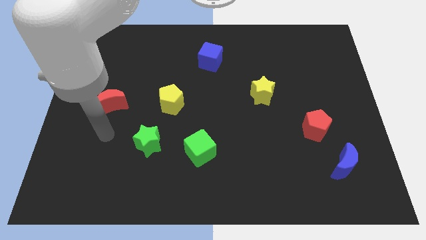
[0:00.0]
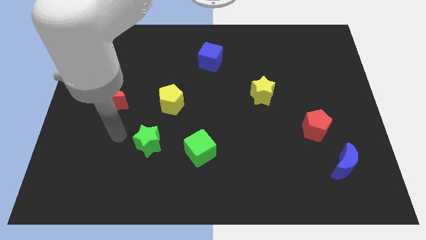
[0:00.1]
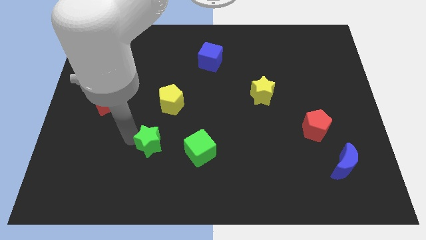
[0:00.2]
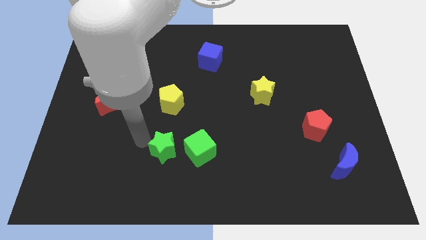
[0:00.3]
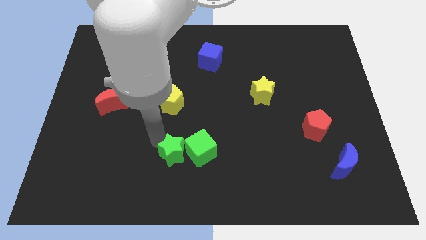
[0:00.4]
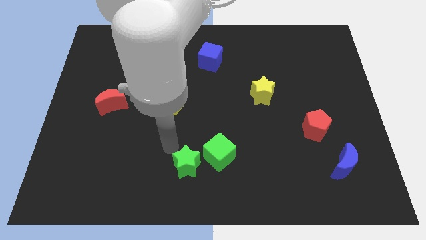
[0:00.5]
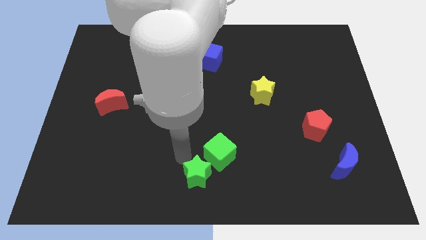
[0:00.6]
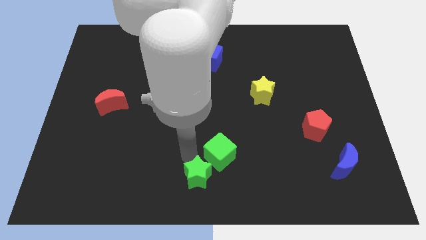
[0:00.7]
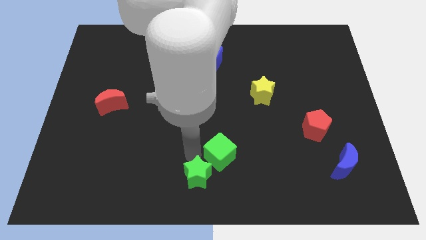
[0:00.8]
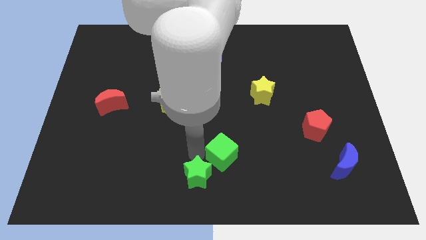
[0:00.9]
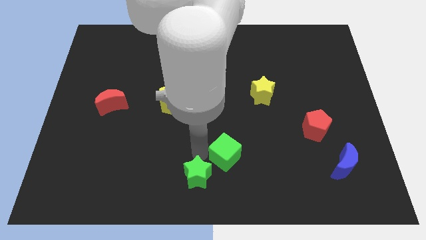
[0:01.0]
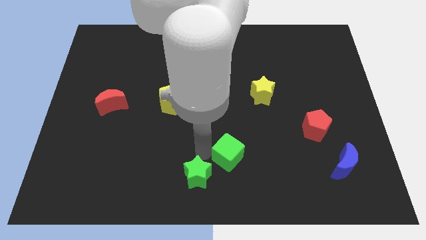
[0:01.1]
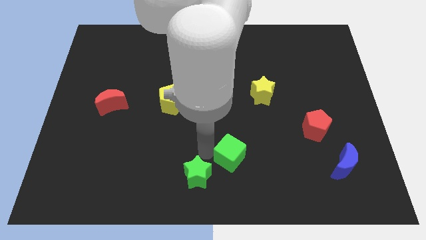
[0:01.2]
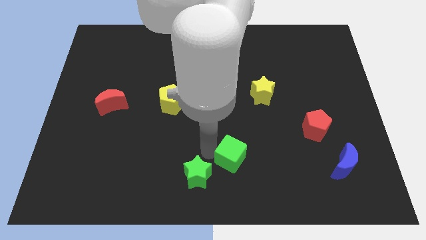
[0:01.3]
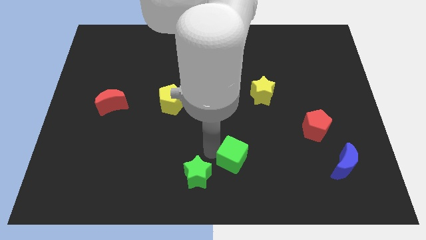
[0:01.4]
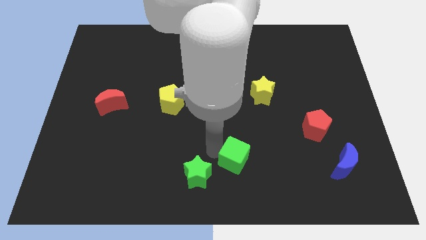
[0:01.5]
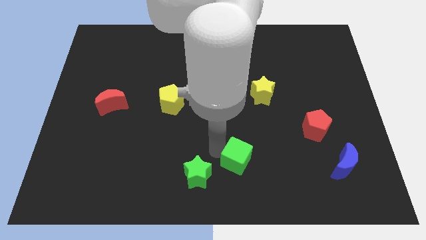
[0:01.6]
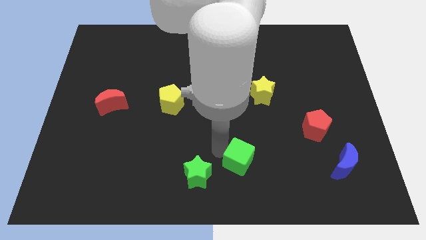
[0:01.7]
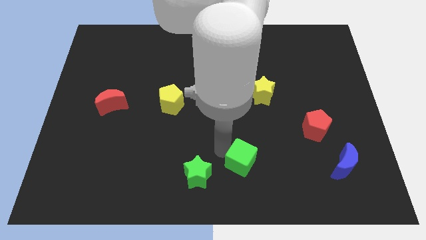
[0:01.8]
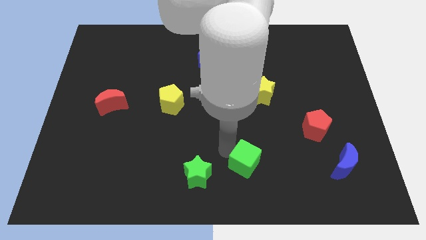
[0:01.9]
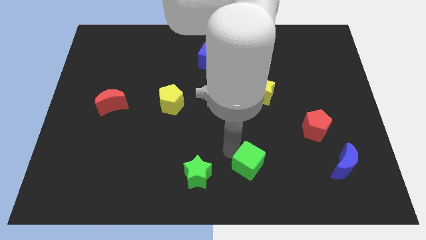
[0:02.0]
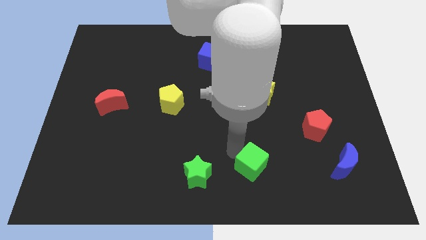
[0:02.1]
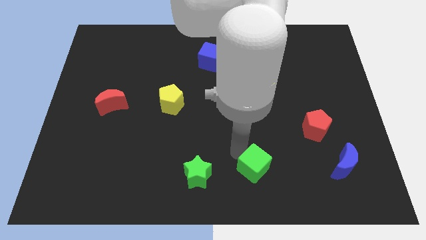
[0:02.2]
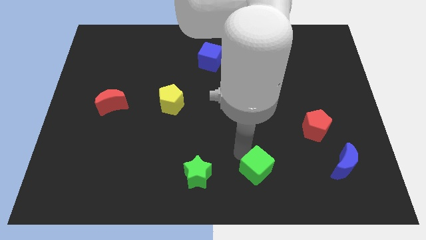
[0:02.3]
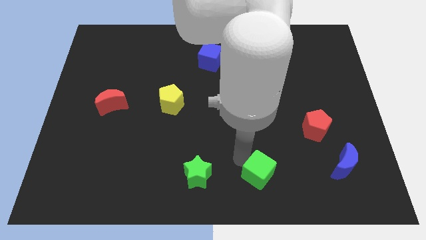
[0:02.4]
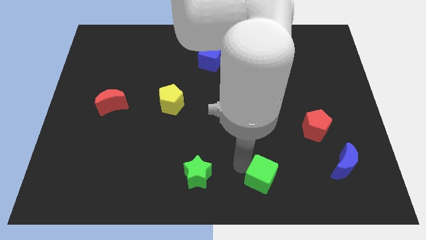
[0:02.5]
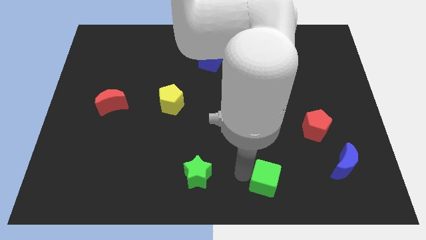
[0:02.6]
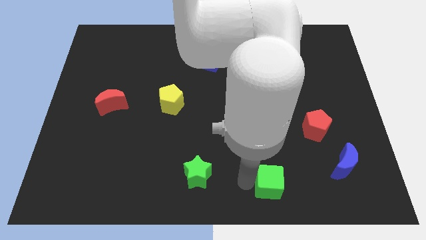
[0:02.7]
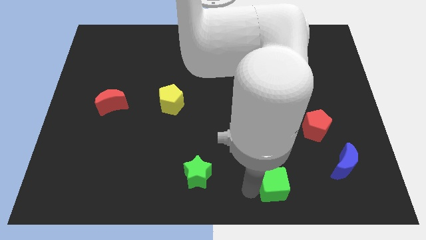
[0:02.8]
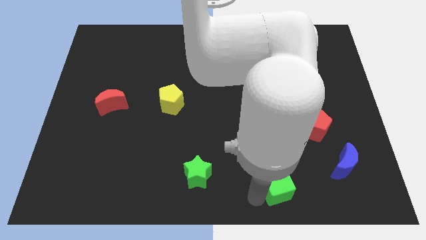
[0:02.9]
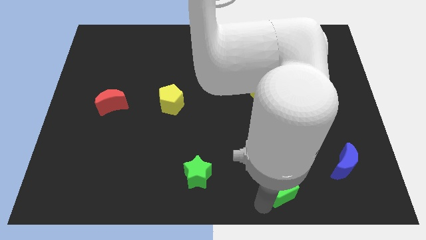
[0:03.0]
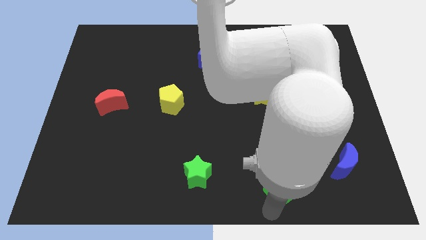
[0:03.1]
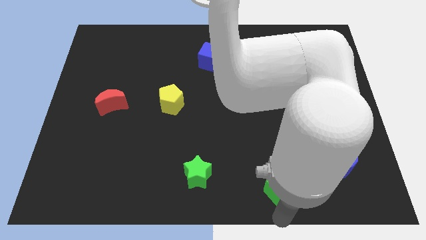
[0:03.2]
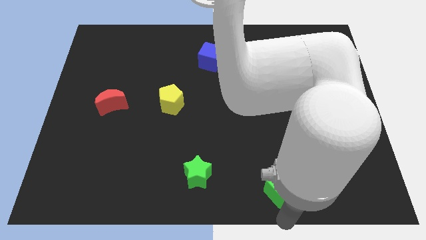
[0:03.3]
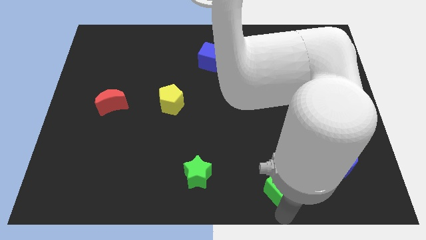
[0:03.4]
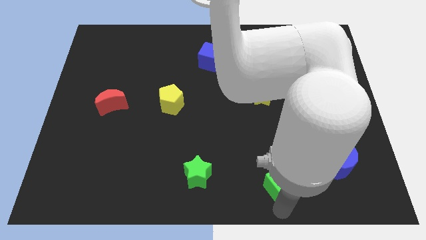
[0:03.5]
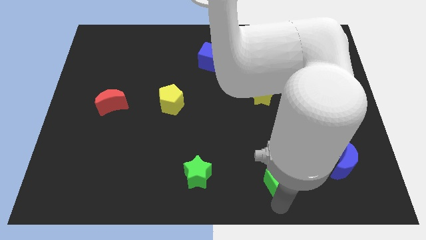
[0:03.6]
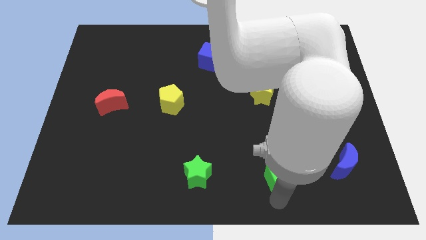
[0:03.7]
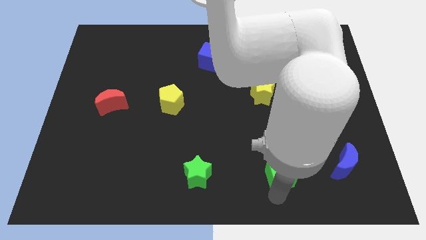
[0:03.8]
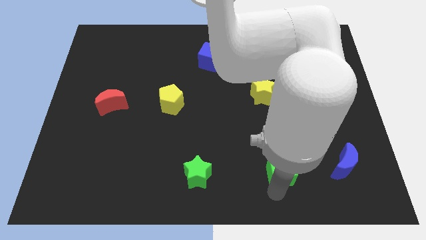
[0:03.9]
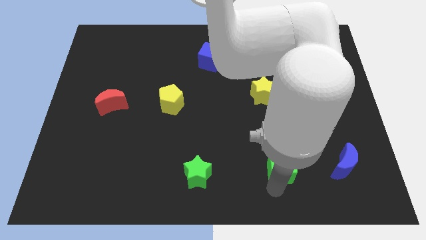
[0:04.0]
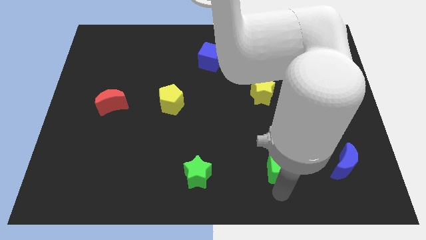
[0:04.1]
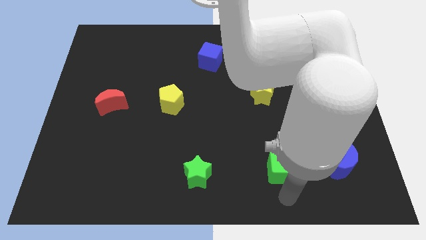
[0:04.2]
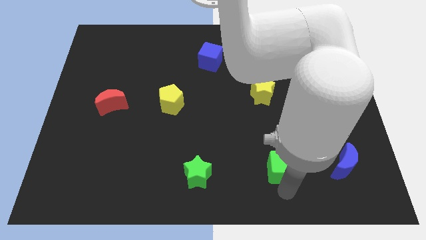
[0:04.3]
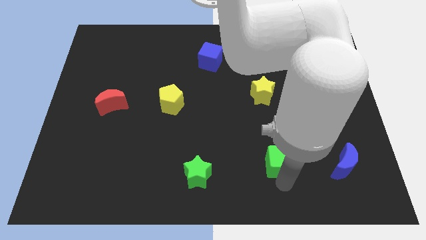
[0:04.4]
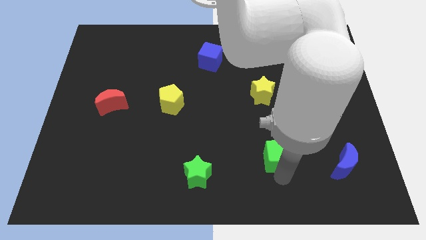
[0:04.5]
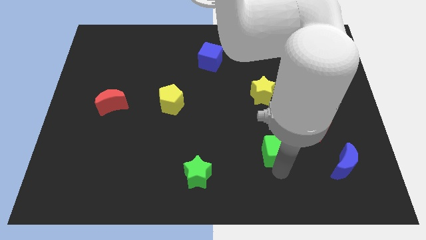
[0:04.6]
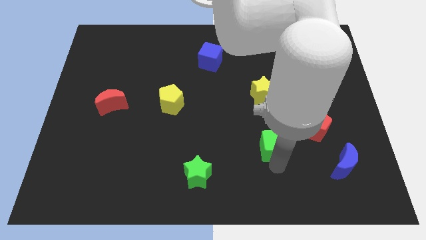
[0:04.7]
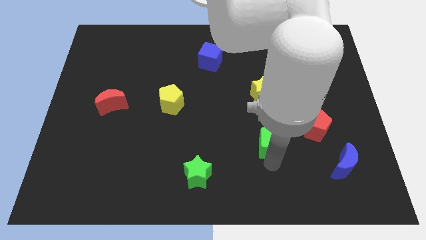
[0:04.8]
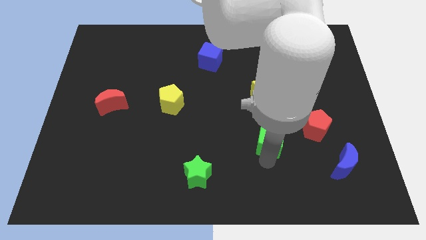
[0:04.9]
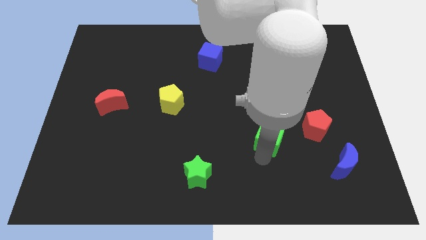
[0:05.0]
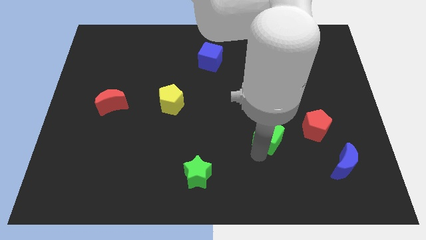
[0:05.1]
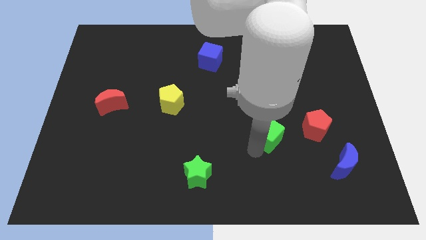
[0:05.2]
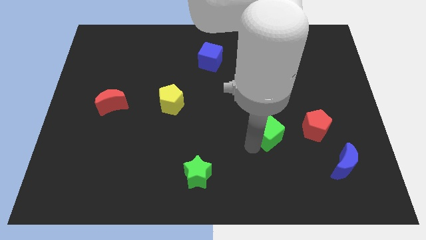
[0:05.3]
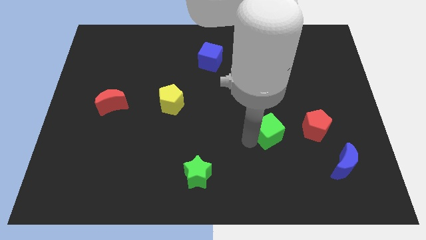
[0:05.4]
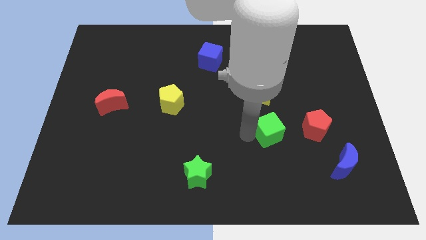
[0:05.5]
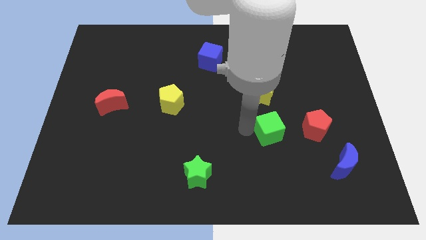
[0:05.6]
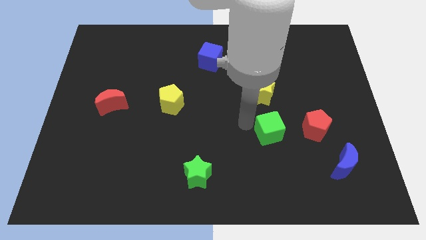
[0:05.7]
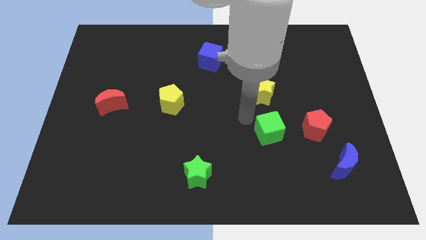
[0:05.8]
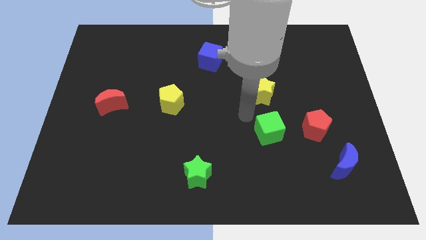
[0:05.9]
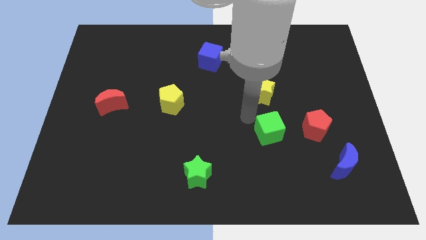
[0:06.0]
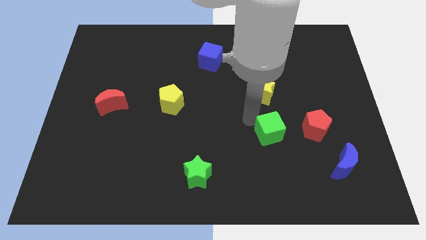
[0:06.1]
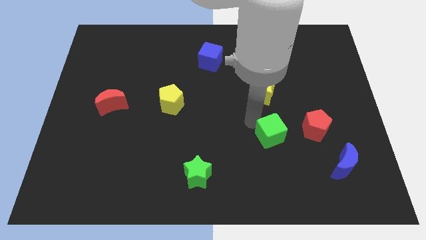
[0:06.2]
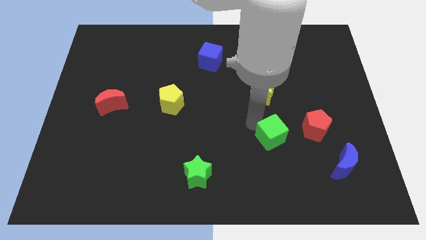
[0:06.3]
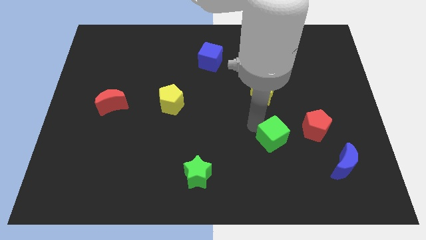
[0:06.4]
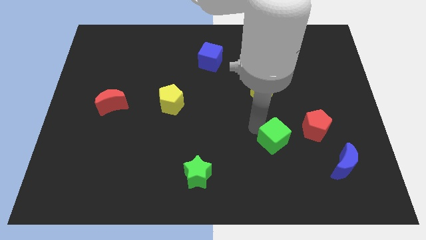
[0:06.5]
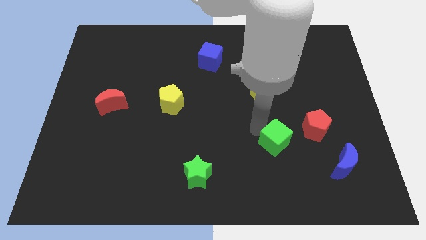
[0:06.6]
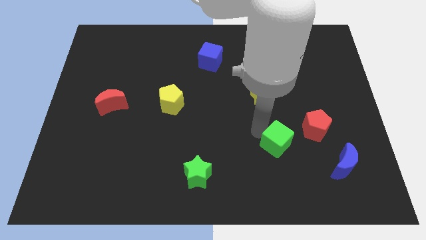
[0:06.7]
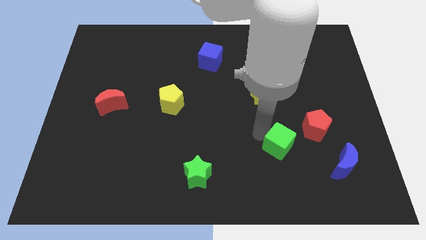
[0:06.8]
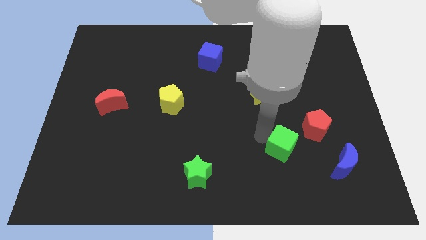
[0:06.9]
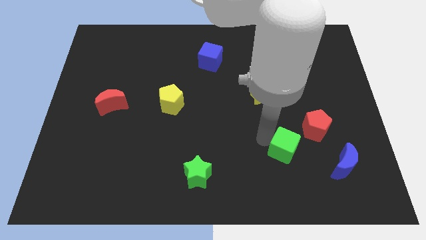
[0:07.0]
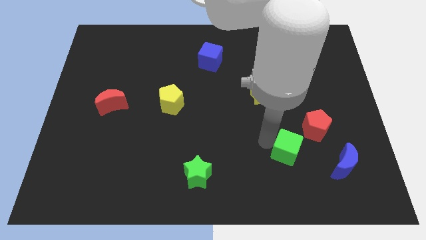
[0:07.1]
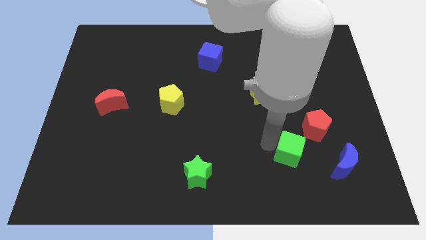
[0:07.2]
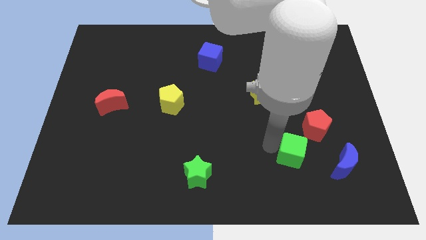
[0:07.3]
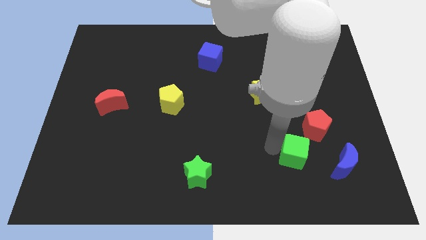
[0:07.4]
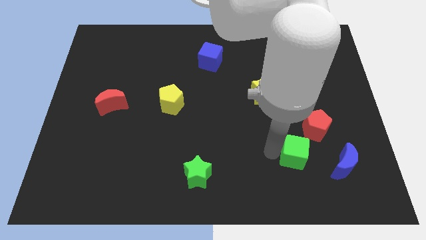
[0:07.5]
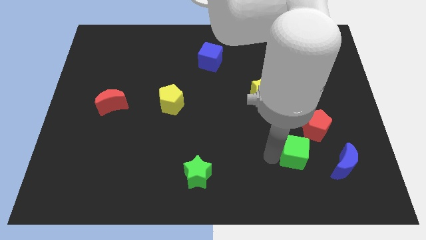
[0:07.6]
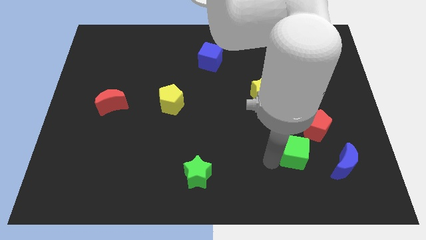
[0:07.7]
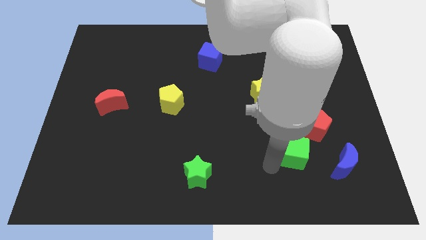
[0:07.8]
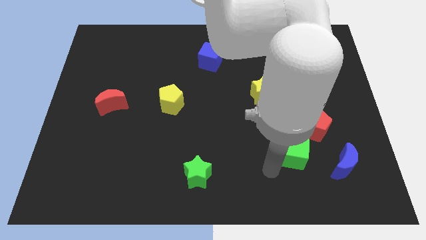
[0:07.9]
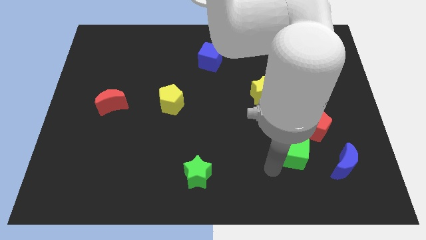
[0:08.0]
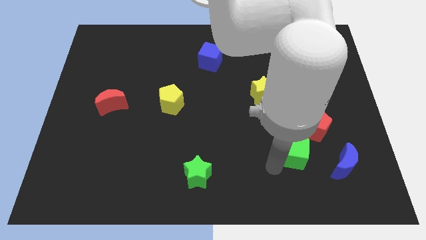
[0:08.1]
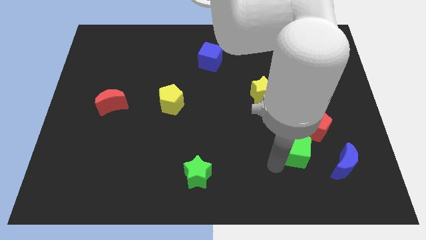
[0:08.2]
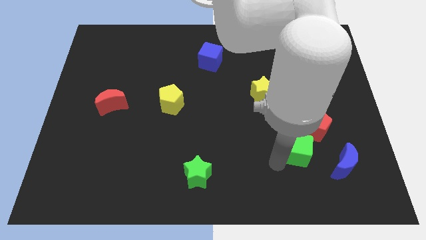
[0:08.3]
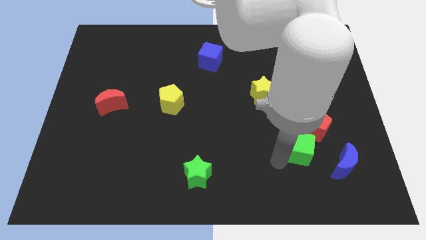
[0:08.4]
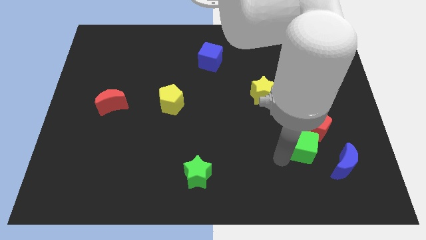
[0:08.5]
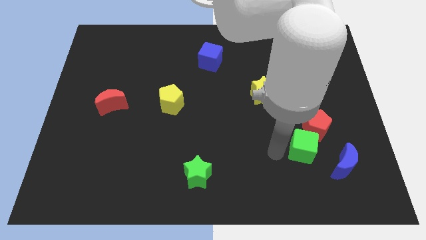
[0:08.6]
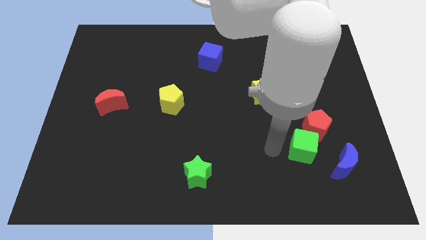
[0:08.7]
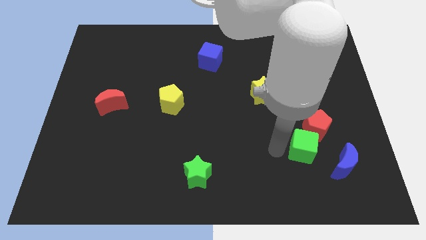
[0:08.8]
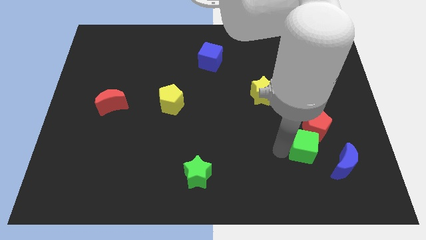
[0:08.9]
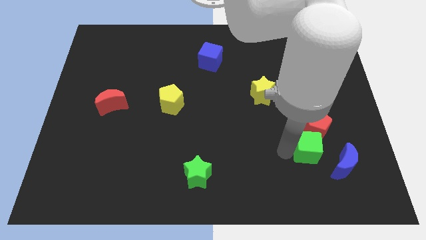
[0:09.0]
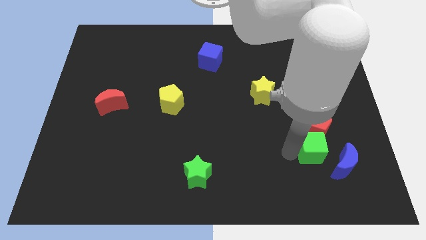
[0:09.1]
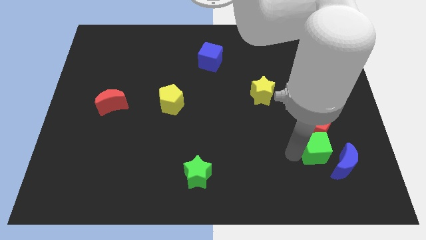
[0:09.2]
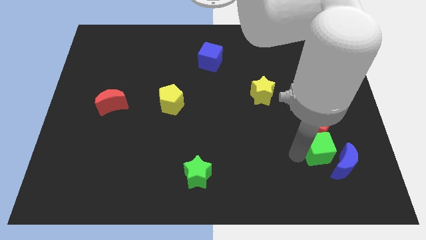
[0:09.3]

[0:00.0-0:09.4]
put the green cube to the bottom right of the red pentagon
